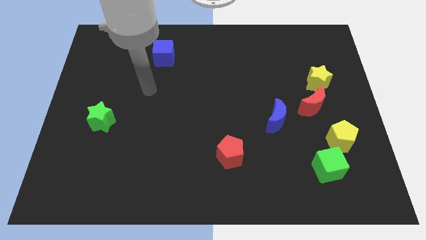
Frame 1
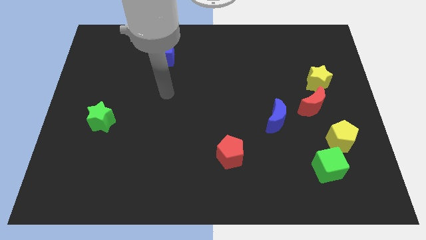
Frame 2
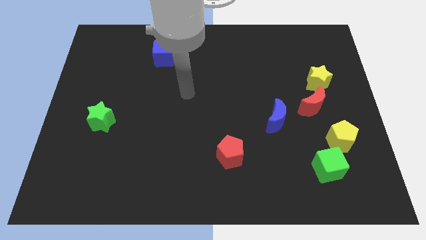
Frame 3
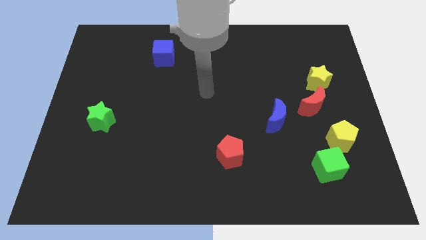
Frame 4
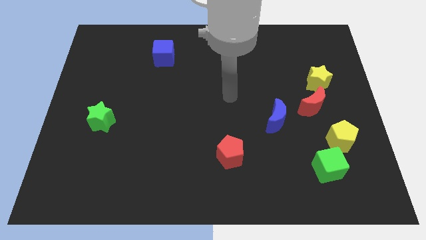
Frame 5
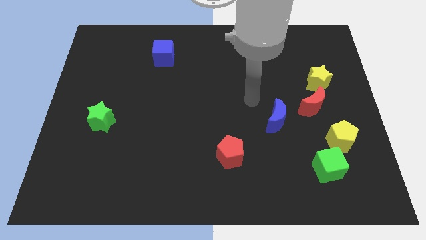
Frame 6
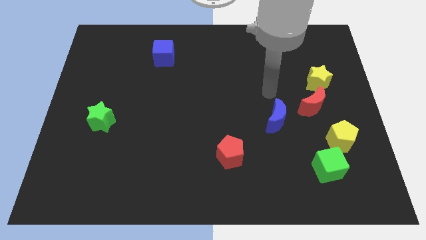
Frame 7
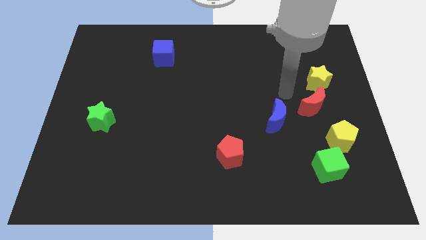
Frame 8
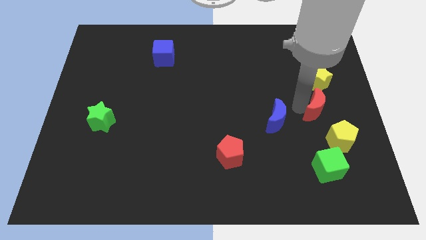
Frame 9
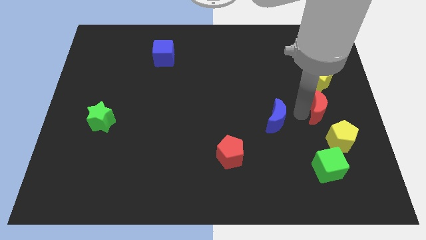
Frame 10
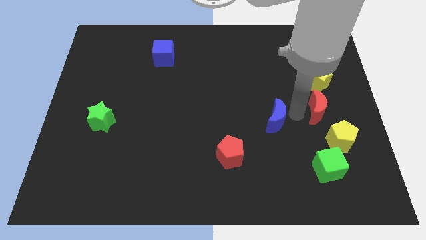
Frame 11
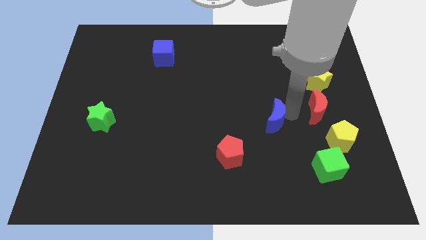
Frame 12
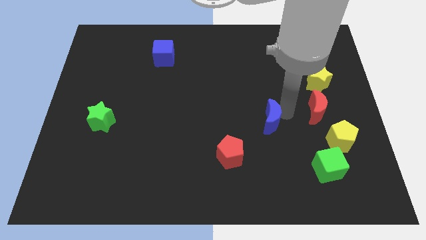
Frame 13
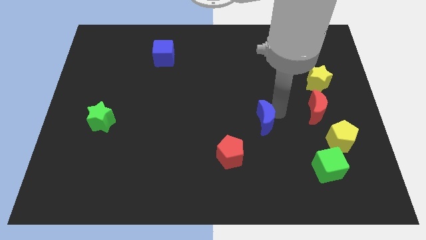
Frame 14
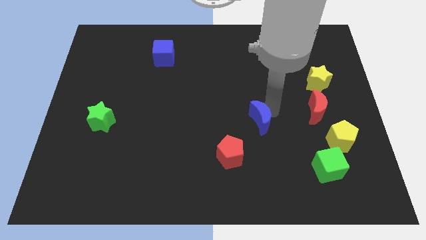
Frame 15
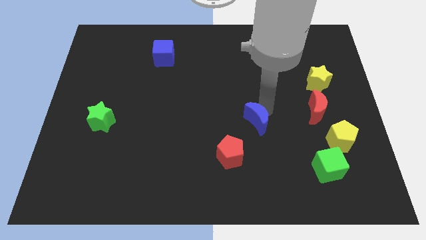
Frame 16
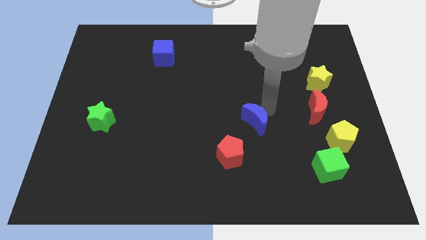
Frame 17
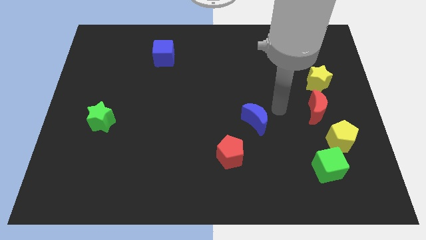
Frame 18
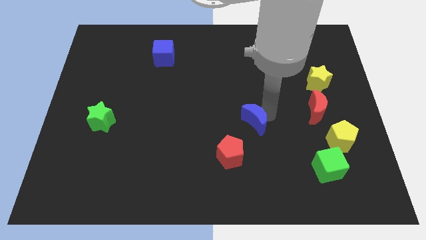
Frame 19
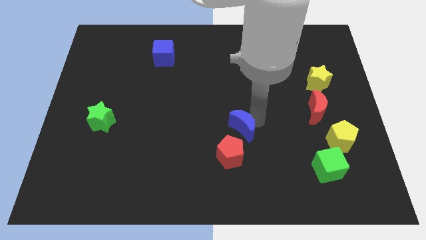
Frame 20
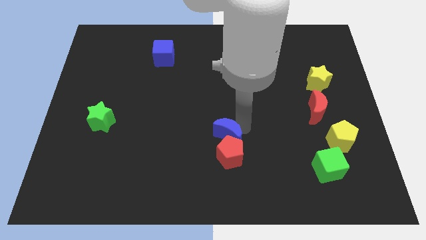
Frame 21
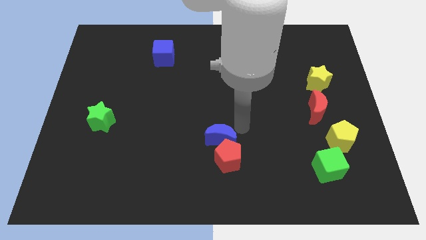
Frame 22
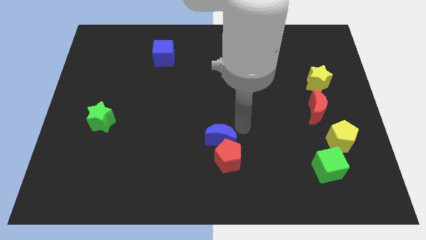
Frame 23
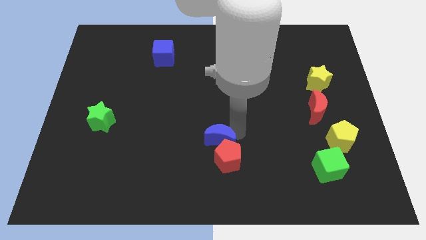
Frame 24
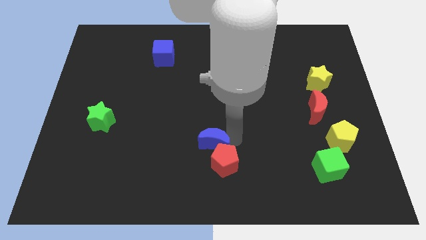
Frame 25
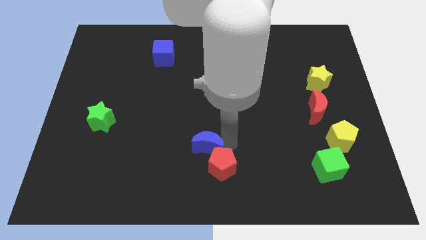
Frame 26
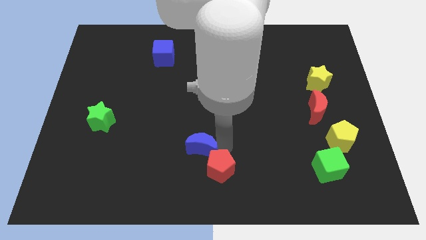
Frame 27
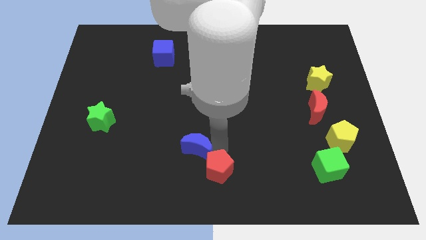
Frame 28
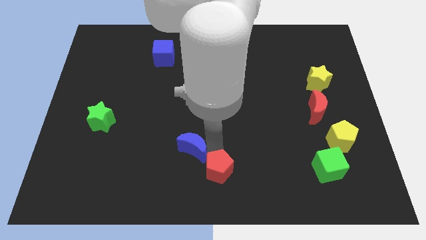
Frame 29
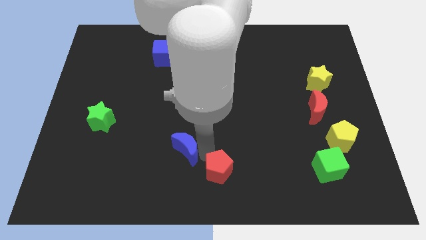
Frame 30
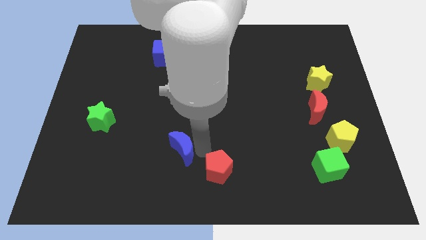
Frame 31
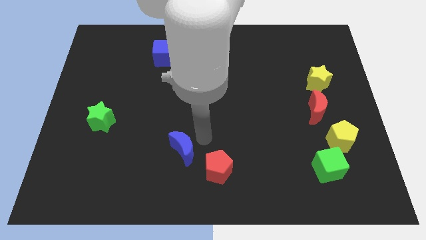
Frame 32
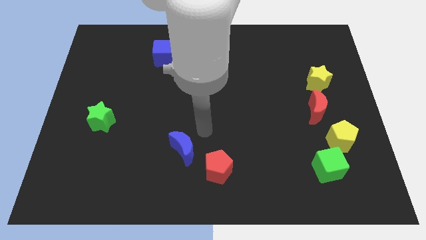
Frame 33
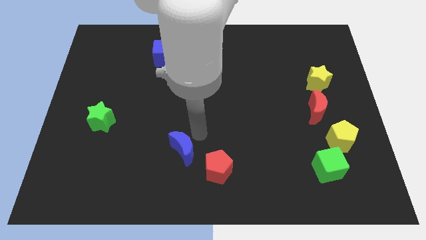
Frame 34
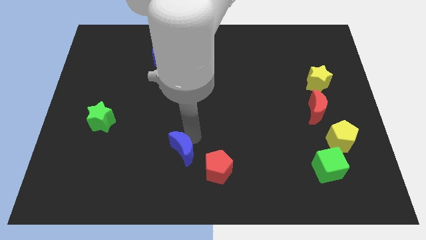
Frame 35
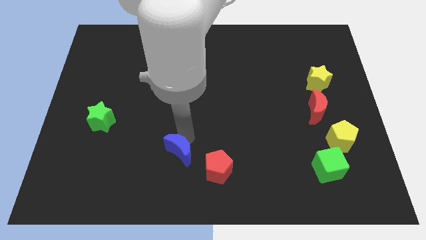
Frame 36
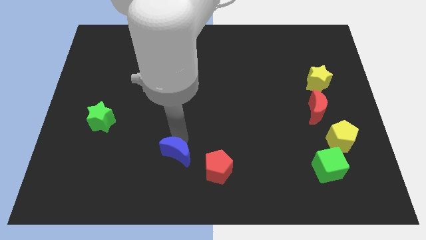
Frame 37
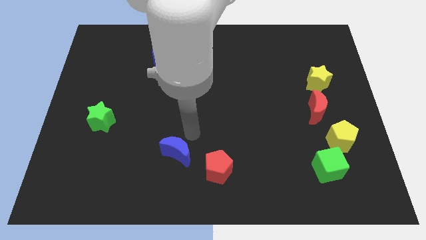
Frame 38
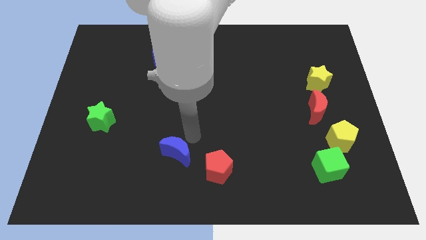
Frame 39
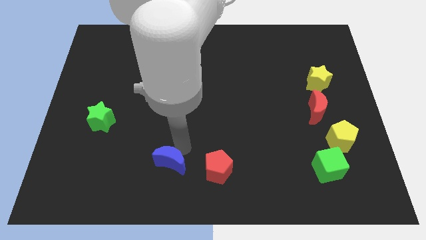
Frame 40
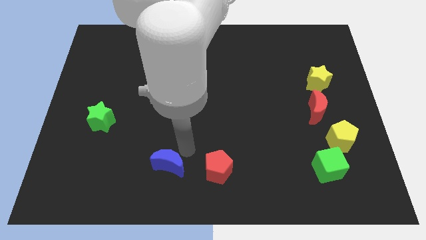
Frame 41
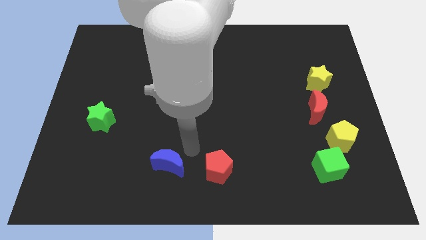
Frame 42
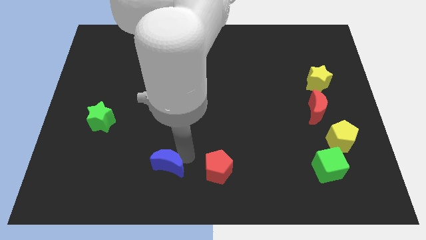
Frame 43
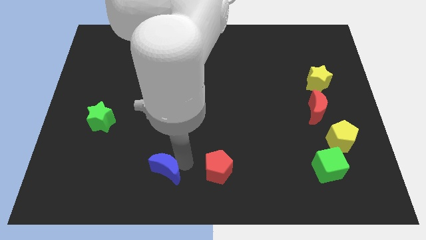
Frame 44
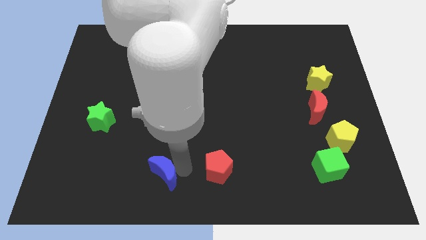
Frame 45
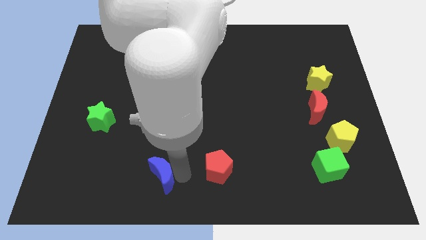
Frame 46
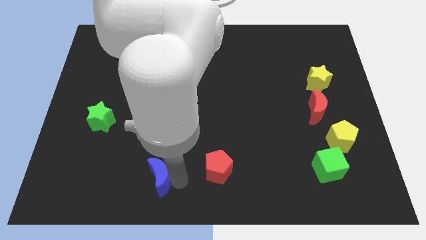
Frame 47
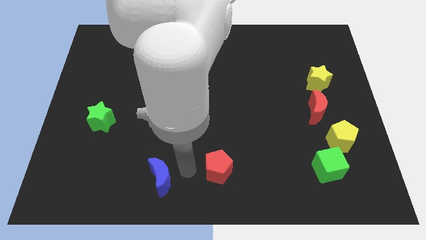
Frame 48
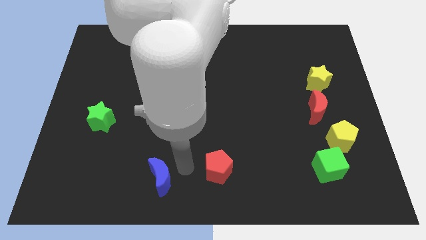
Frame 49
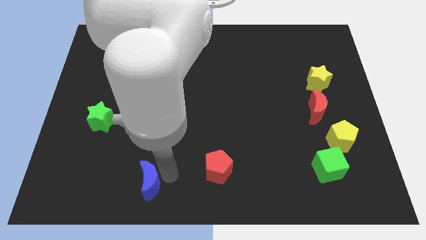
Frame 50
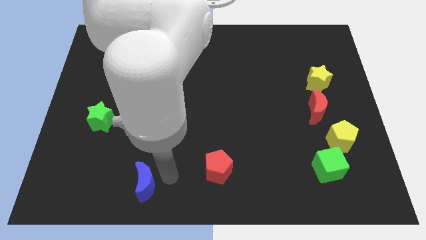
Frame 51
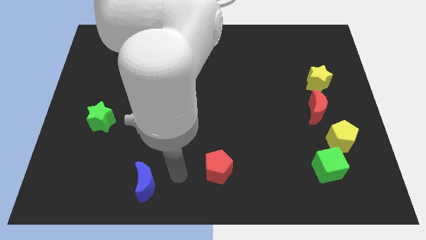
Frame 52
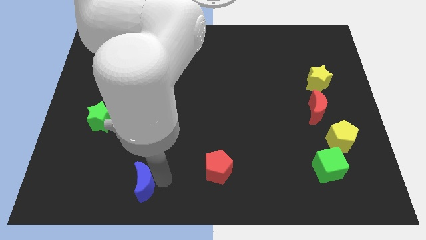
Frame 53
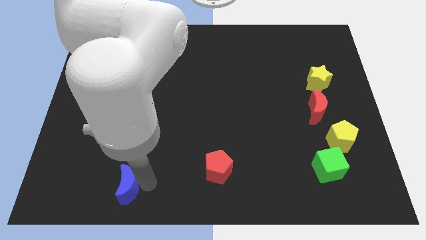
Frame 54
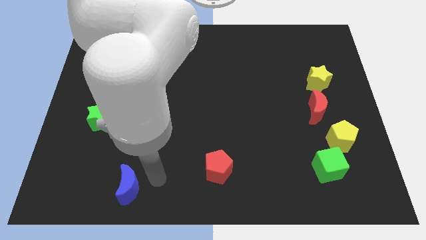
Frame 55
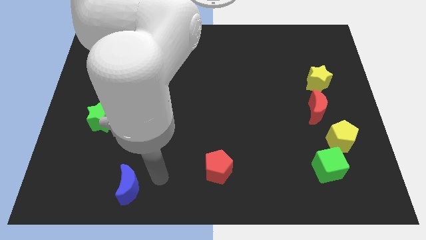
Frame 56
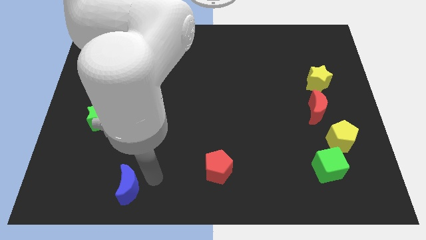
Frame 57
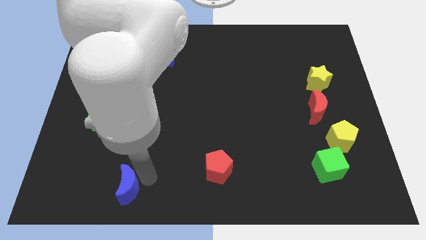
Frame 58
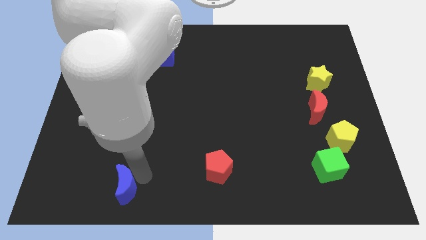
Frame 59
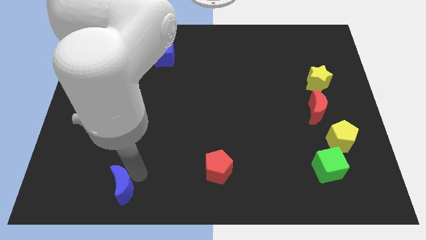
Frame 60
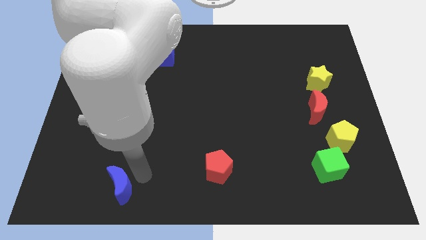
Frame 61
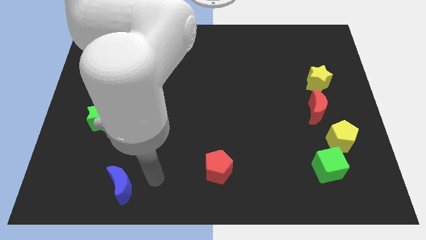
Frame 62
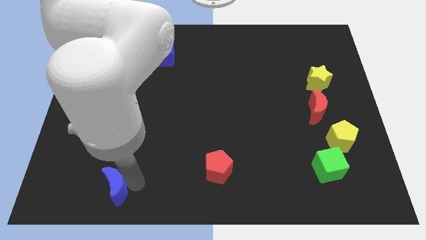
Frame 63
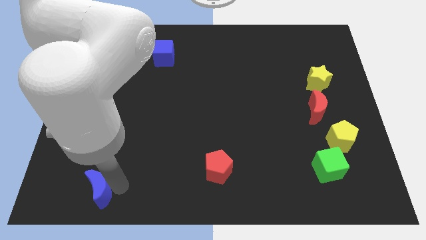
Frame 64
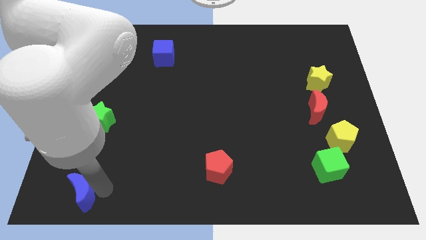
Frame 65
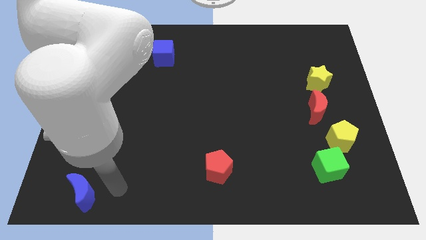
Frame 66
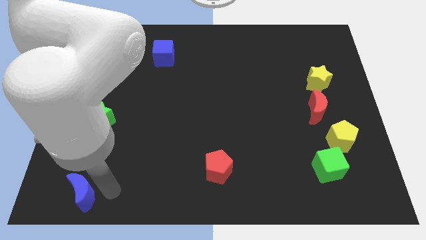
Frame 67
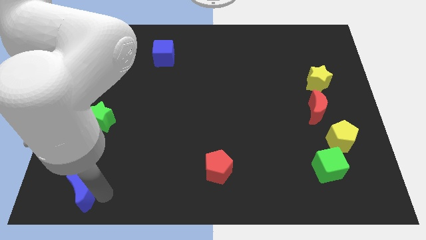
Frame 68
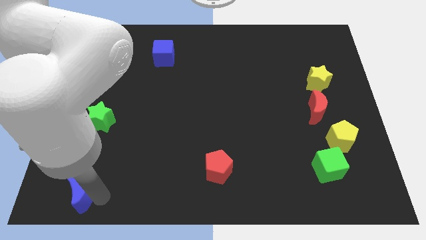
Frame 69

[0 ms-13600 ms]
move the blue moon to the bottom left of the board
